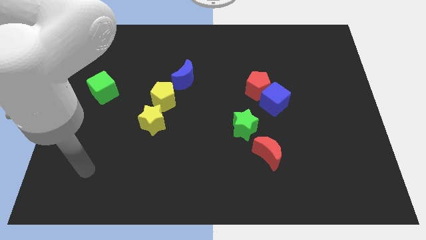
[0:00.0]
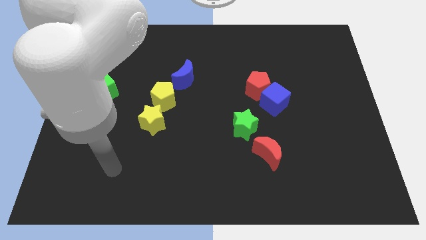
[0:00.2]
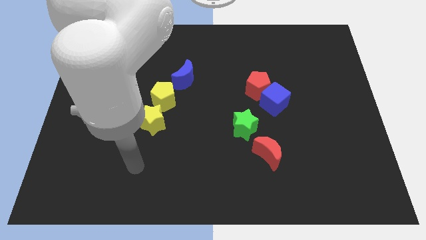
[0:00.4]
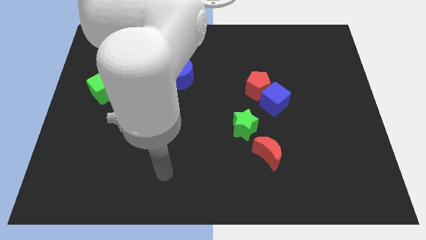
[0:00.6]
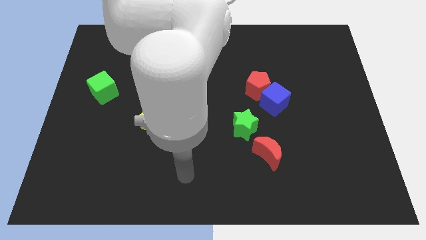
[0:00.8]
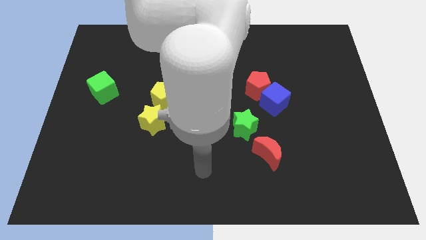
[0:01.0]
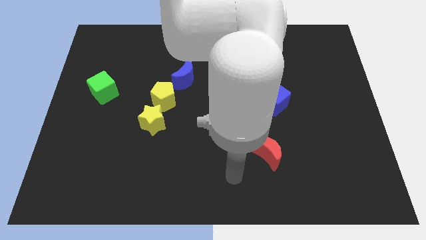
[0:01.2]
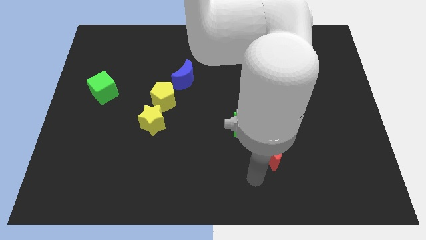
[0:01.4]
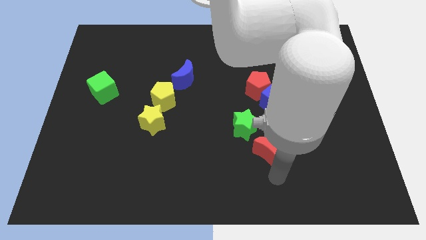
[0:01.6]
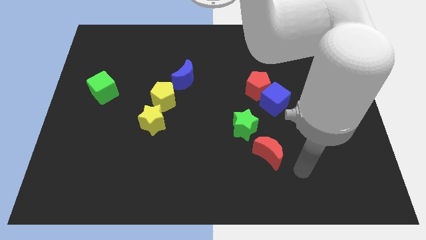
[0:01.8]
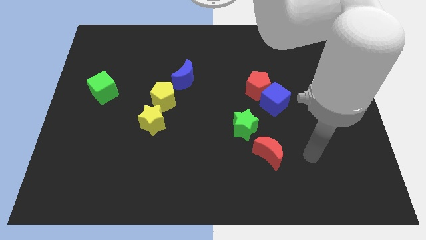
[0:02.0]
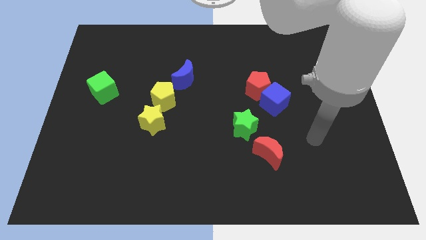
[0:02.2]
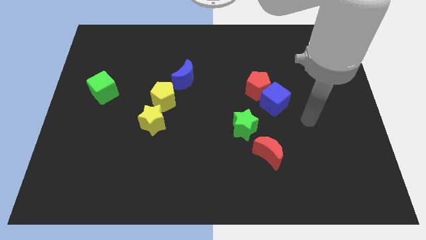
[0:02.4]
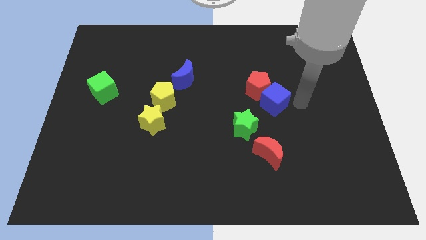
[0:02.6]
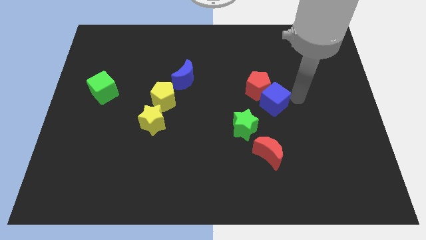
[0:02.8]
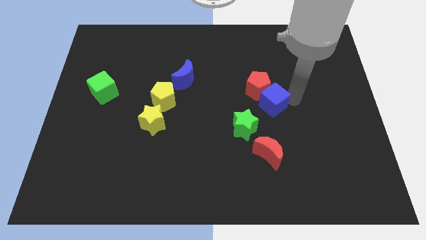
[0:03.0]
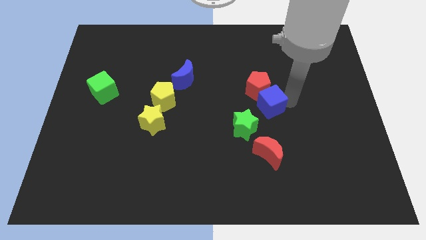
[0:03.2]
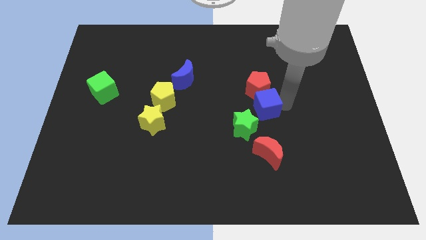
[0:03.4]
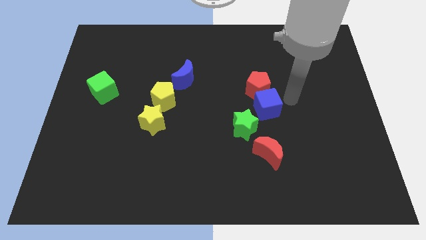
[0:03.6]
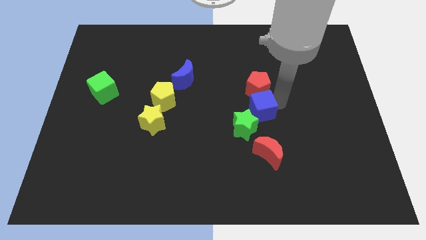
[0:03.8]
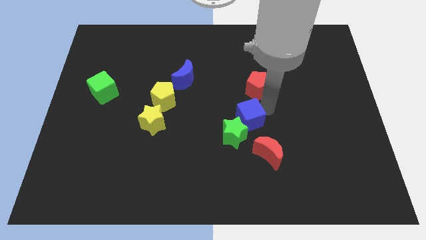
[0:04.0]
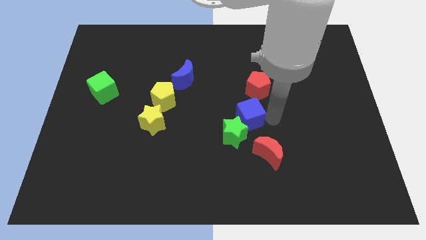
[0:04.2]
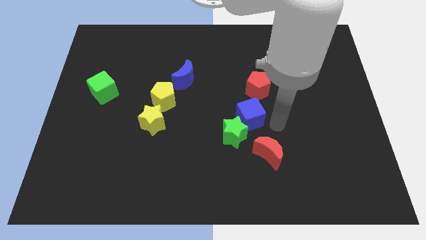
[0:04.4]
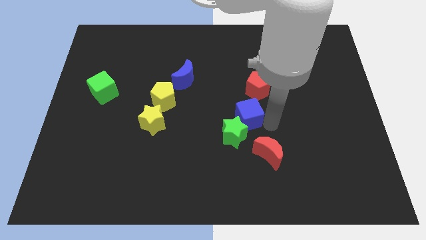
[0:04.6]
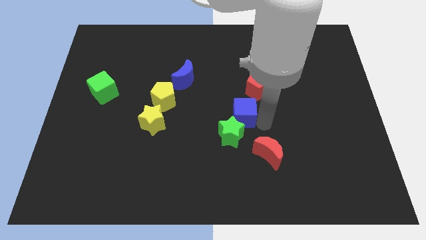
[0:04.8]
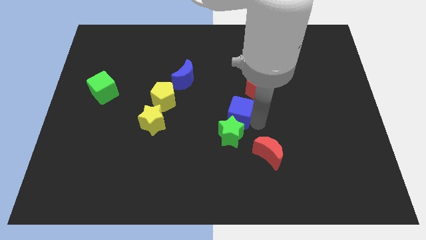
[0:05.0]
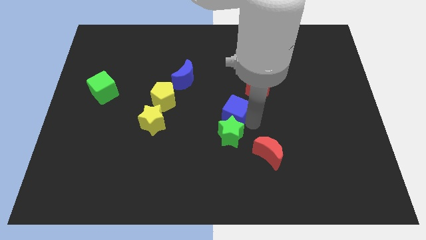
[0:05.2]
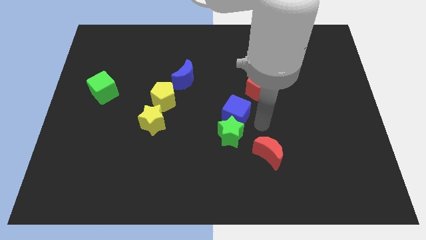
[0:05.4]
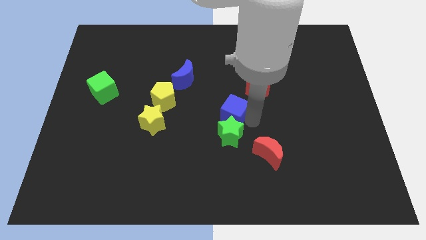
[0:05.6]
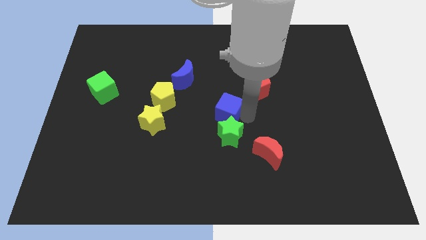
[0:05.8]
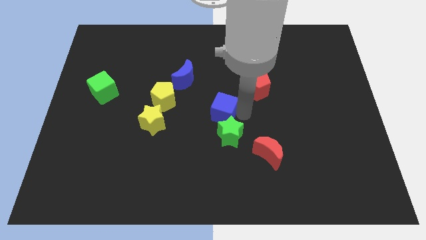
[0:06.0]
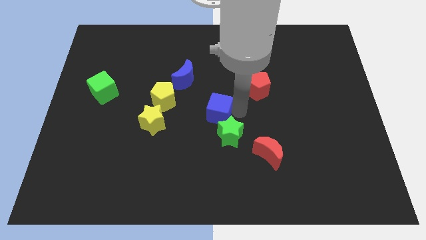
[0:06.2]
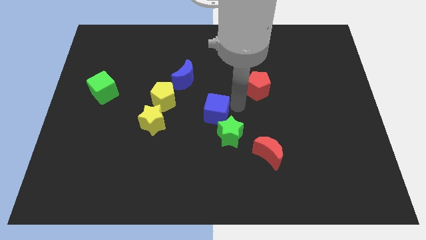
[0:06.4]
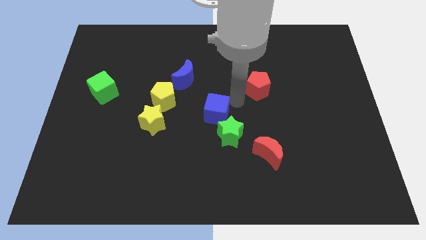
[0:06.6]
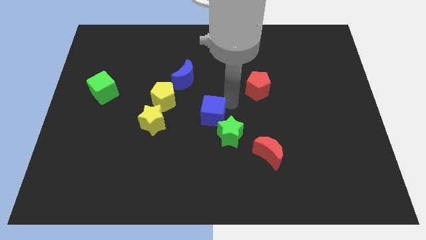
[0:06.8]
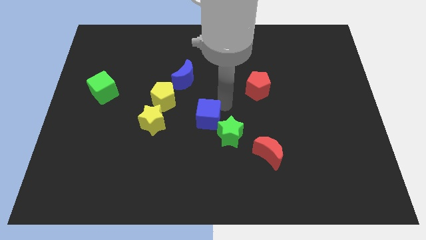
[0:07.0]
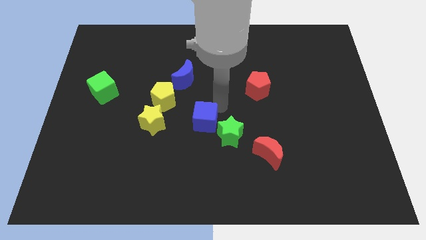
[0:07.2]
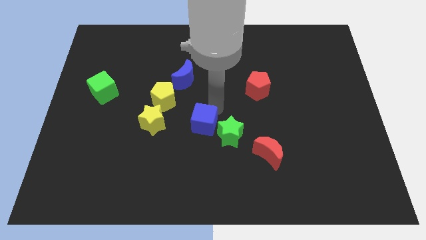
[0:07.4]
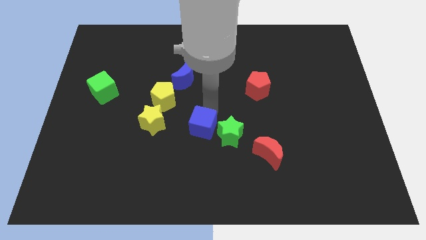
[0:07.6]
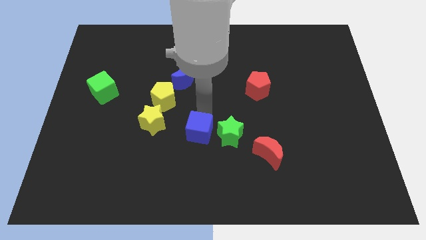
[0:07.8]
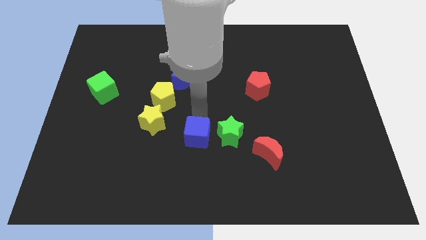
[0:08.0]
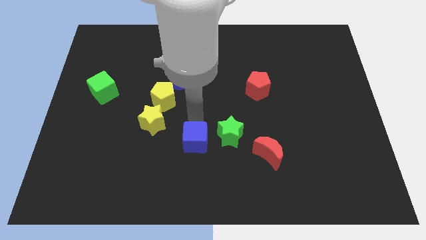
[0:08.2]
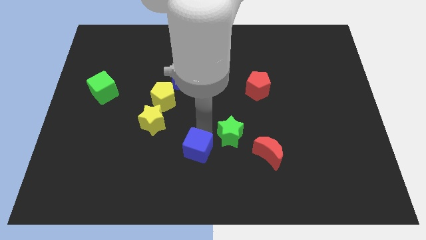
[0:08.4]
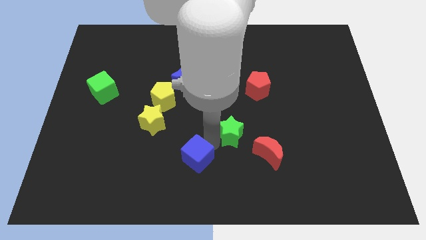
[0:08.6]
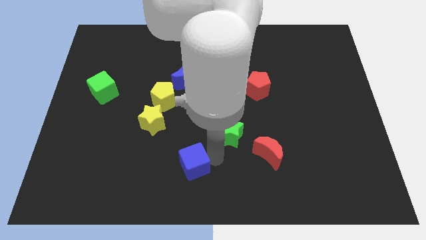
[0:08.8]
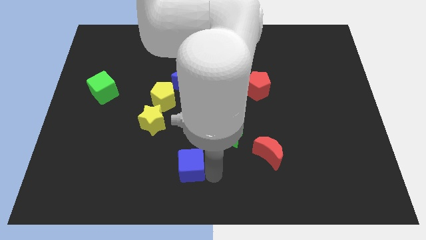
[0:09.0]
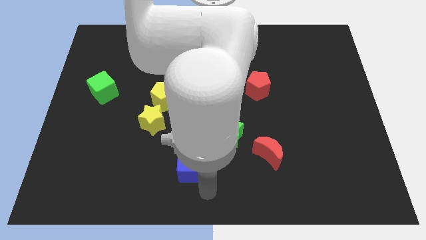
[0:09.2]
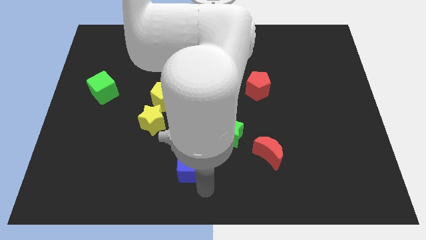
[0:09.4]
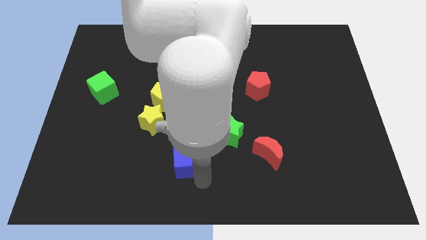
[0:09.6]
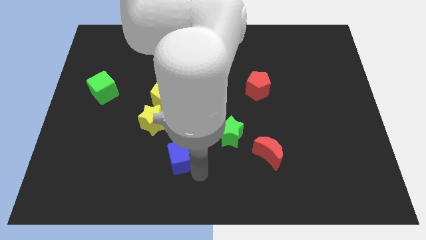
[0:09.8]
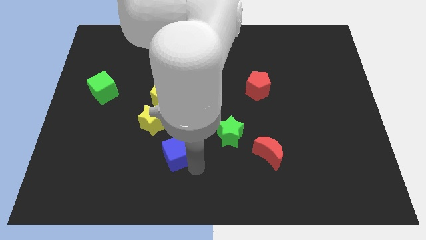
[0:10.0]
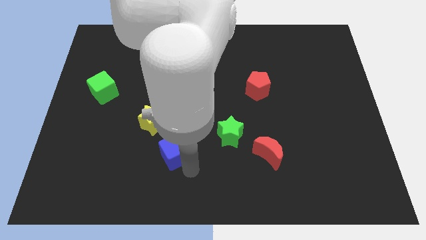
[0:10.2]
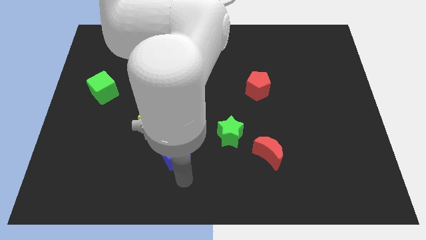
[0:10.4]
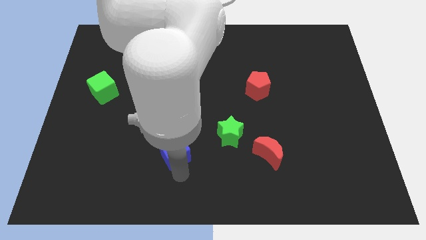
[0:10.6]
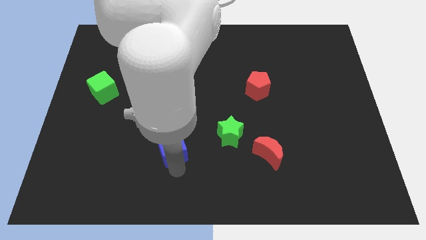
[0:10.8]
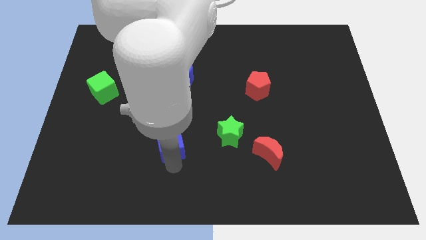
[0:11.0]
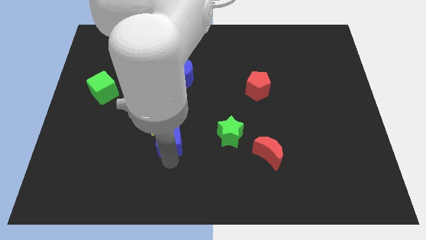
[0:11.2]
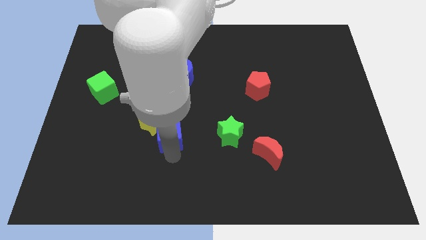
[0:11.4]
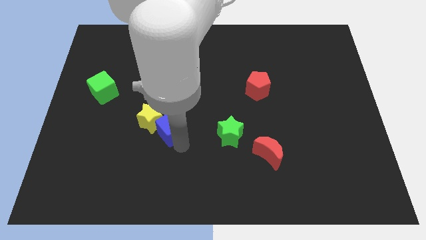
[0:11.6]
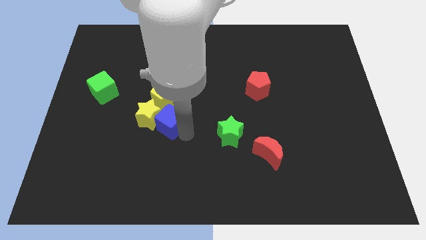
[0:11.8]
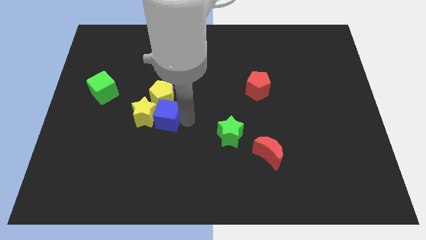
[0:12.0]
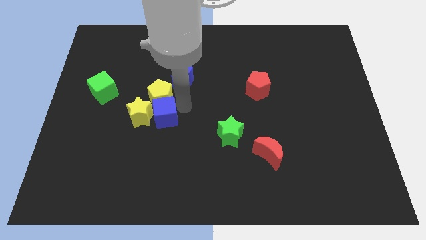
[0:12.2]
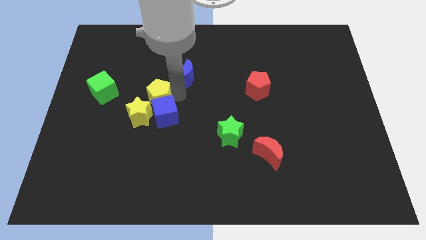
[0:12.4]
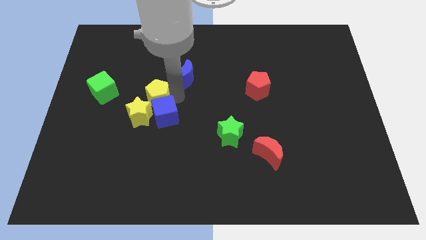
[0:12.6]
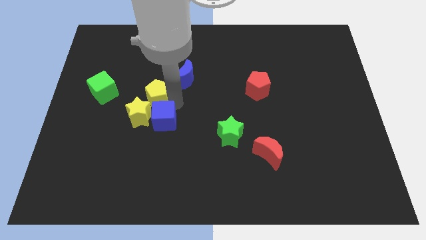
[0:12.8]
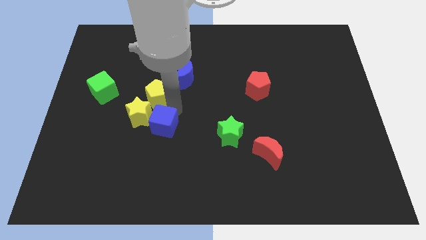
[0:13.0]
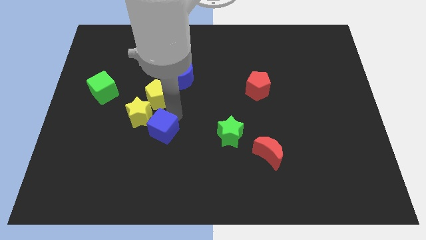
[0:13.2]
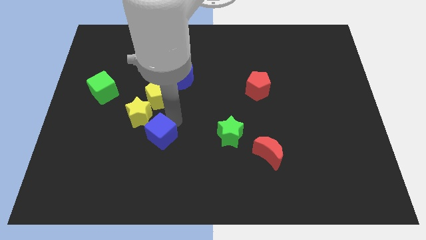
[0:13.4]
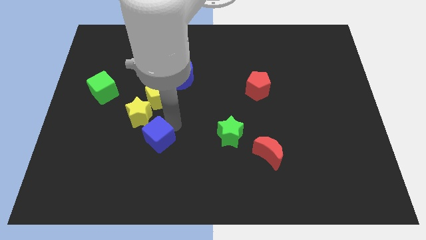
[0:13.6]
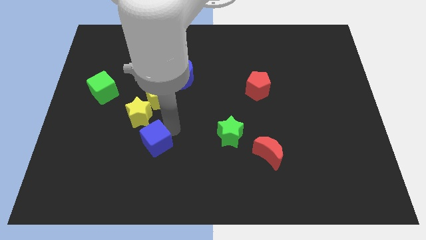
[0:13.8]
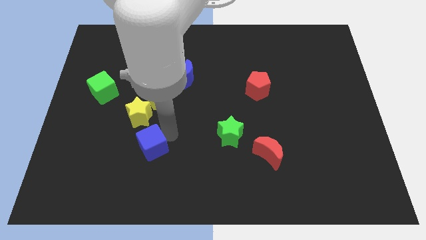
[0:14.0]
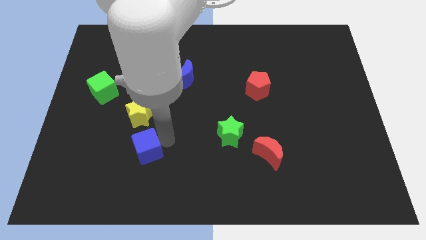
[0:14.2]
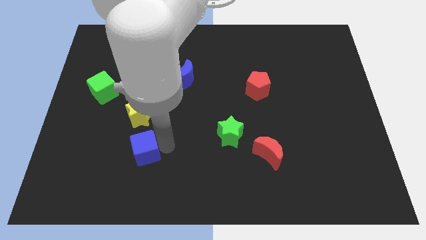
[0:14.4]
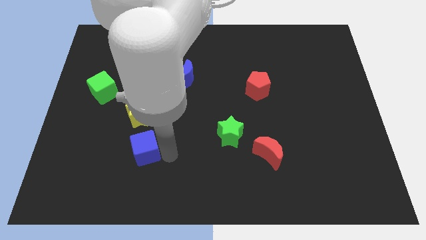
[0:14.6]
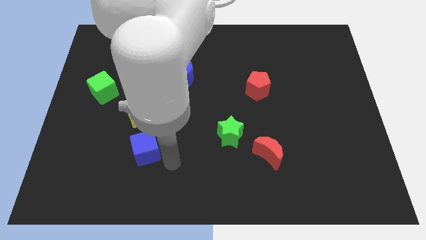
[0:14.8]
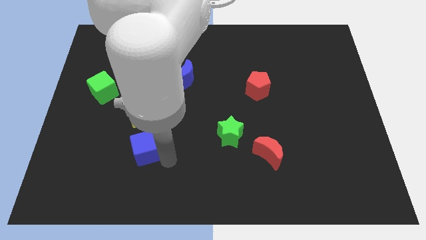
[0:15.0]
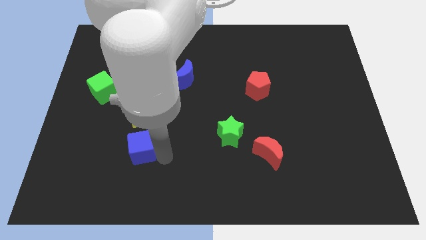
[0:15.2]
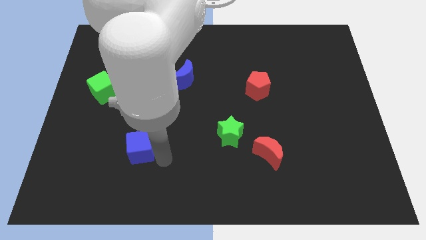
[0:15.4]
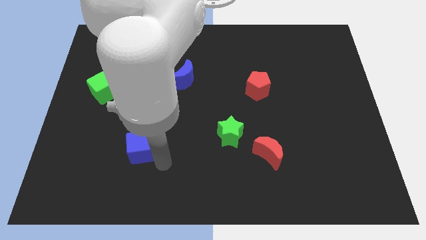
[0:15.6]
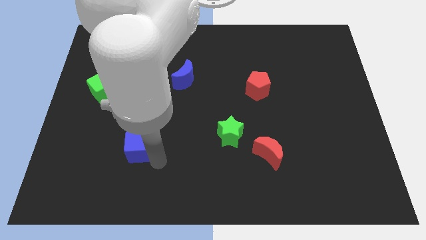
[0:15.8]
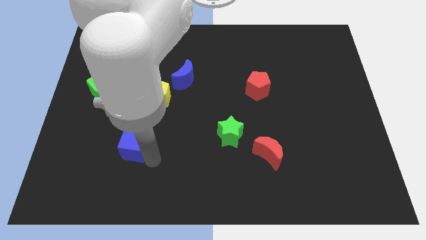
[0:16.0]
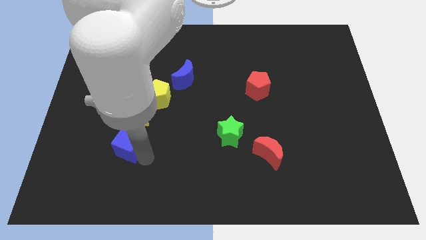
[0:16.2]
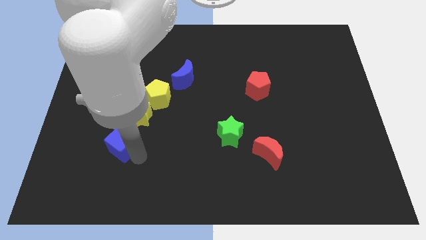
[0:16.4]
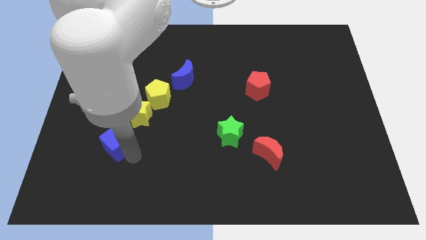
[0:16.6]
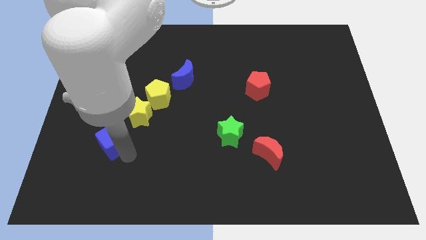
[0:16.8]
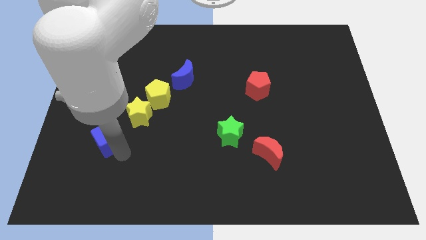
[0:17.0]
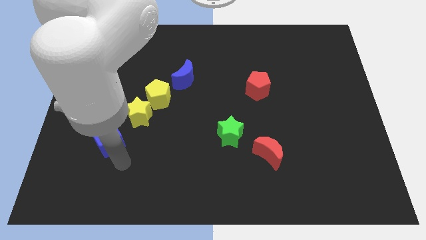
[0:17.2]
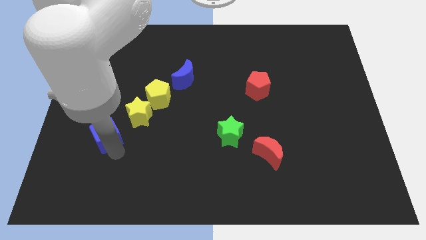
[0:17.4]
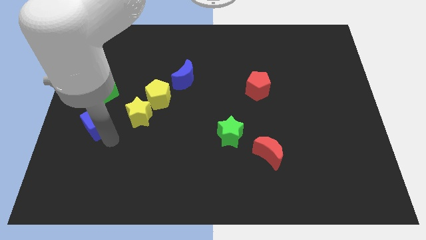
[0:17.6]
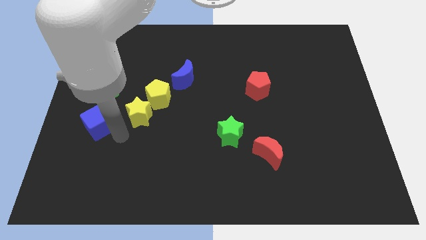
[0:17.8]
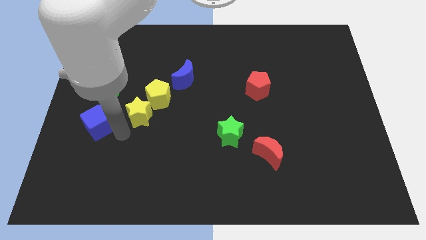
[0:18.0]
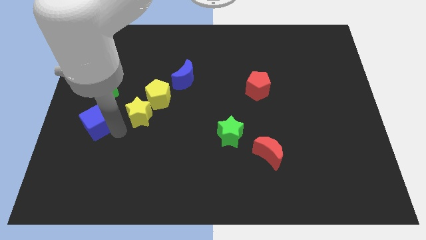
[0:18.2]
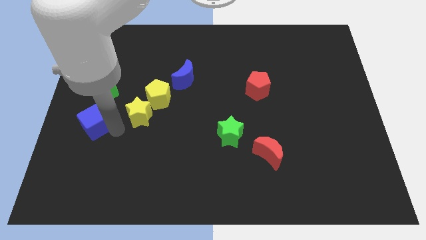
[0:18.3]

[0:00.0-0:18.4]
move the blue cube to the left side of the board
